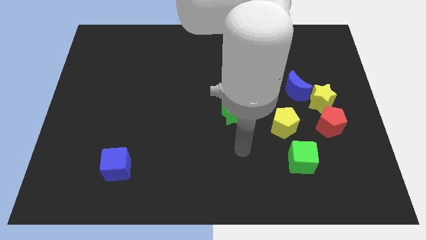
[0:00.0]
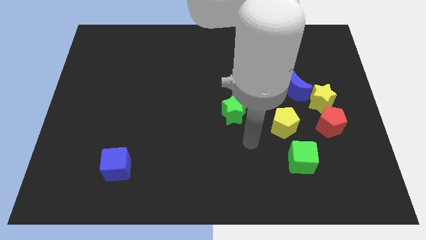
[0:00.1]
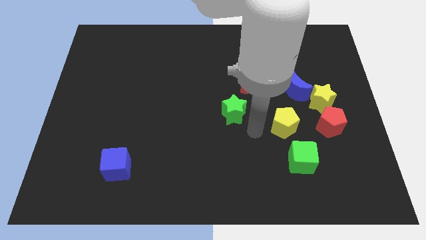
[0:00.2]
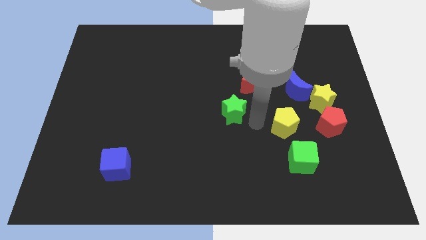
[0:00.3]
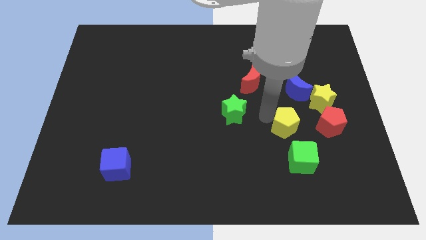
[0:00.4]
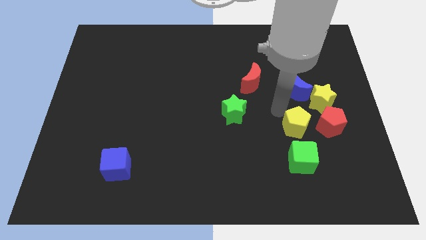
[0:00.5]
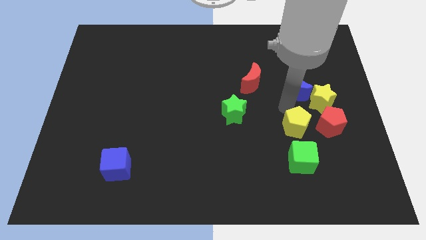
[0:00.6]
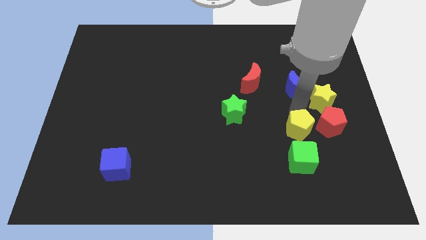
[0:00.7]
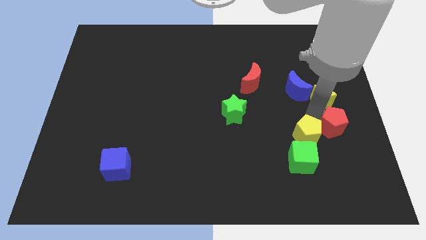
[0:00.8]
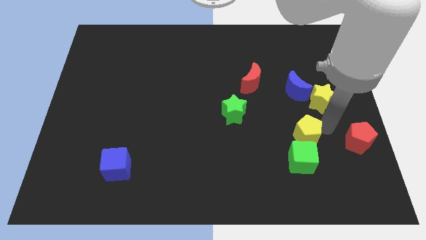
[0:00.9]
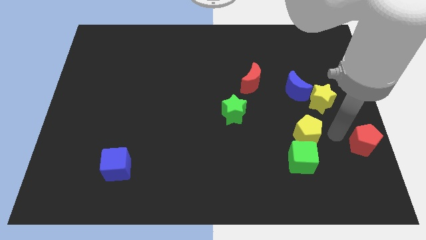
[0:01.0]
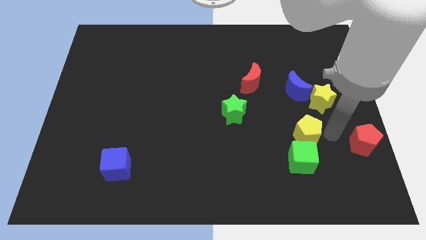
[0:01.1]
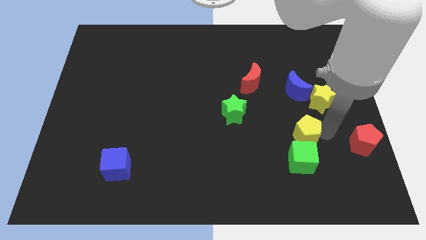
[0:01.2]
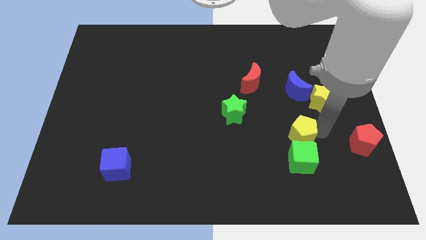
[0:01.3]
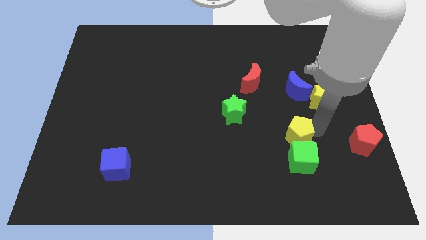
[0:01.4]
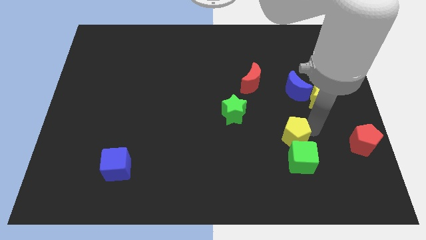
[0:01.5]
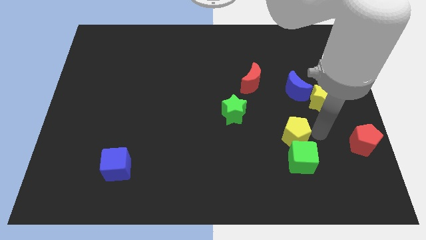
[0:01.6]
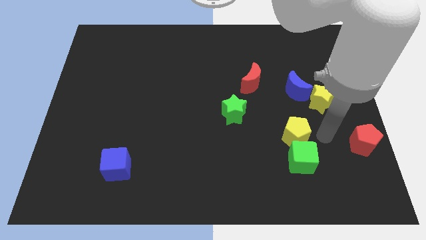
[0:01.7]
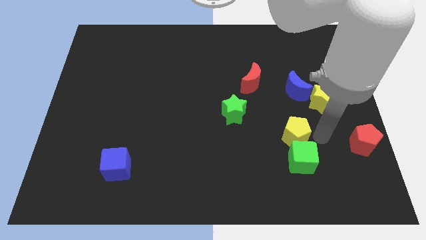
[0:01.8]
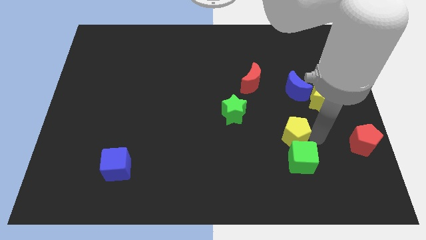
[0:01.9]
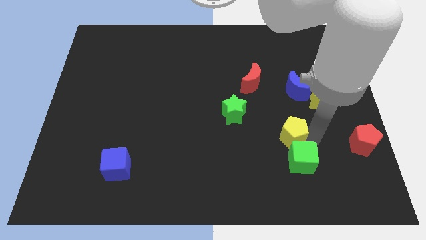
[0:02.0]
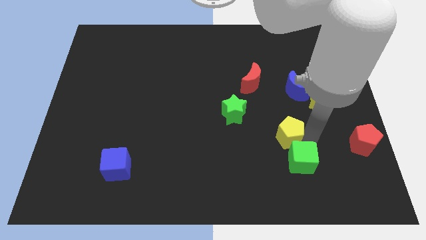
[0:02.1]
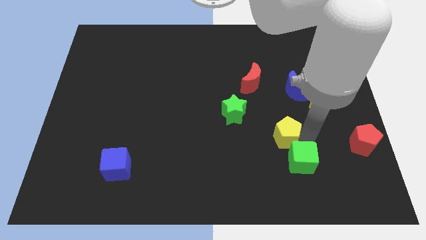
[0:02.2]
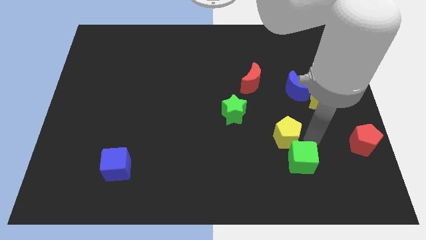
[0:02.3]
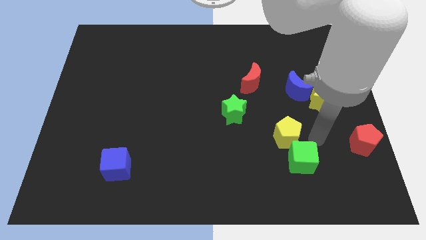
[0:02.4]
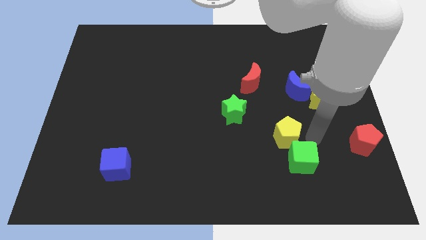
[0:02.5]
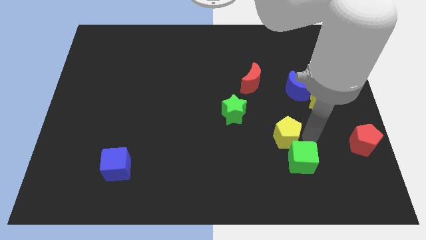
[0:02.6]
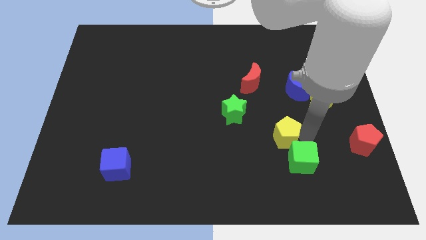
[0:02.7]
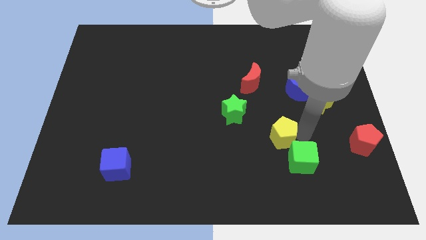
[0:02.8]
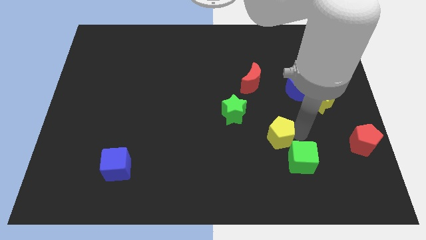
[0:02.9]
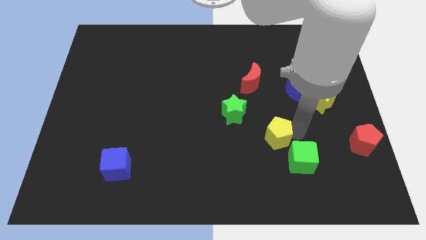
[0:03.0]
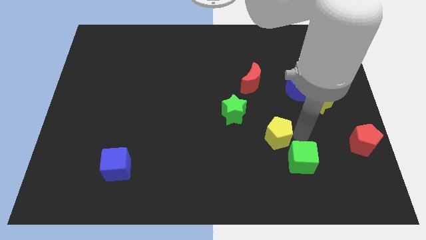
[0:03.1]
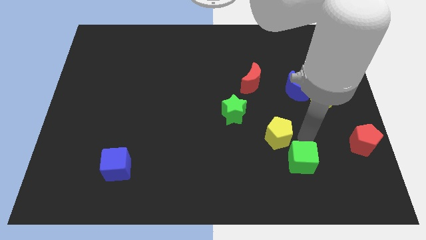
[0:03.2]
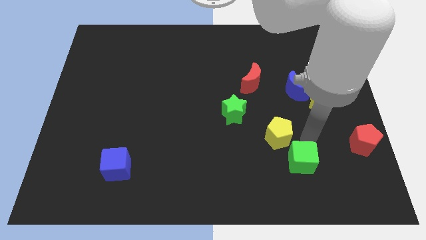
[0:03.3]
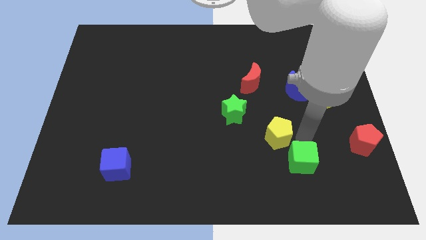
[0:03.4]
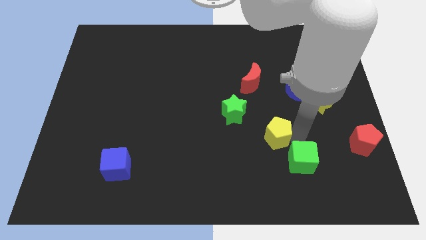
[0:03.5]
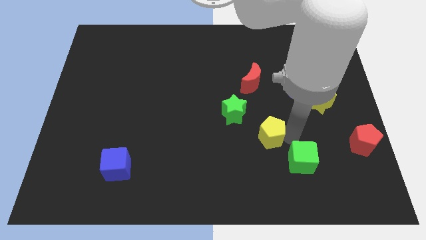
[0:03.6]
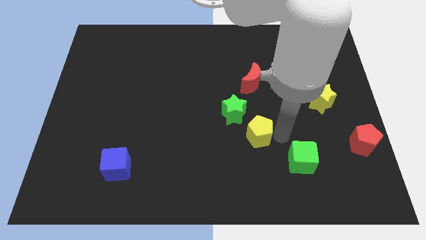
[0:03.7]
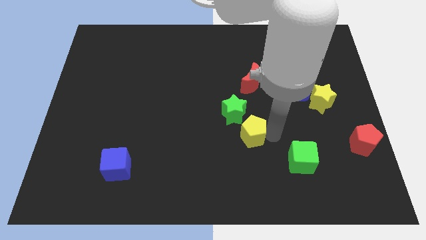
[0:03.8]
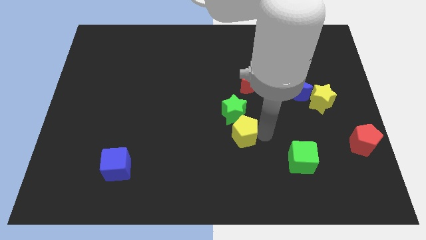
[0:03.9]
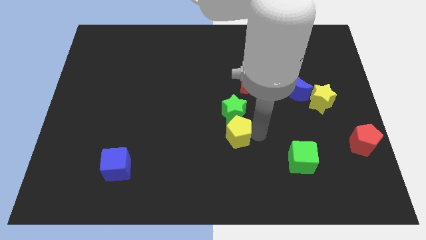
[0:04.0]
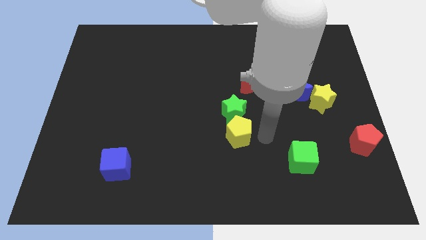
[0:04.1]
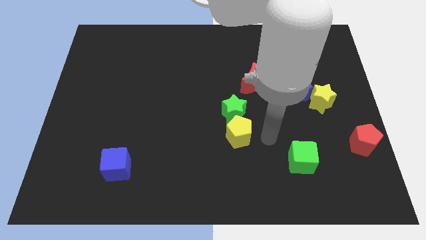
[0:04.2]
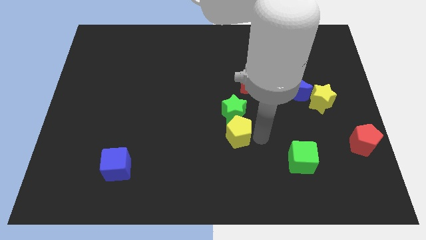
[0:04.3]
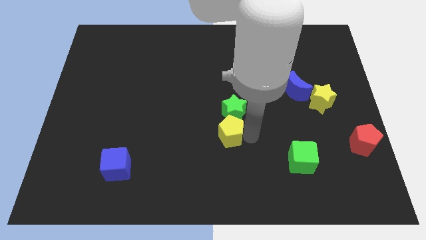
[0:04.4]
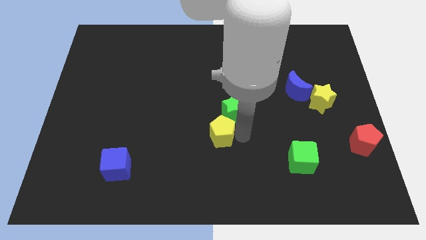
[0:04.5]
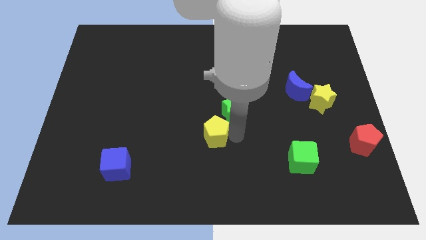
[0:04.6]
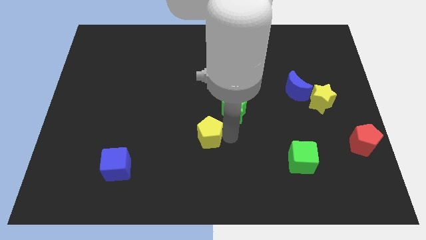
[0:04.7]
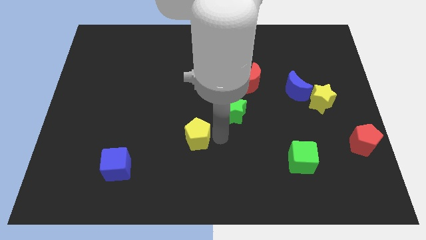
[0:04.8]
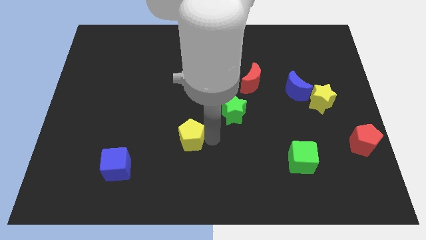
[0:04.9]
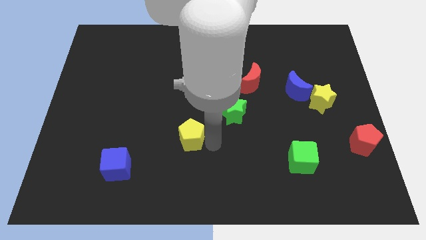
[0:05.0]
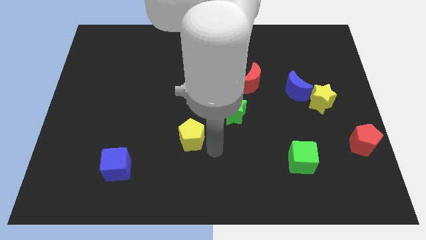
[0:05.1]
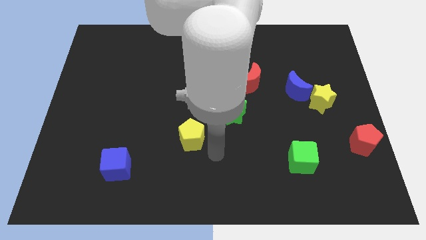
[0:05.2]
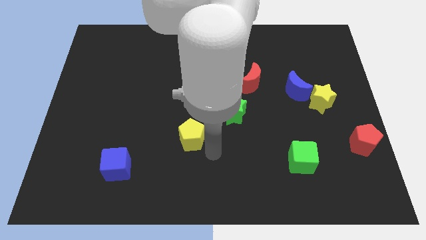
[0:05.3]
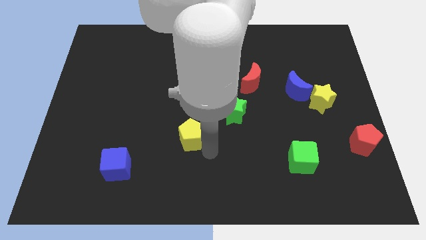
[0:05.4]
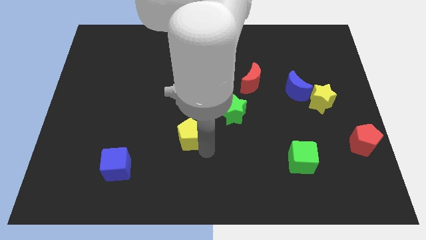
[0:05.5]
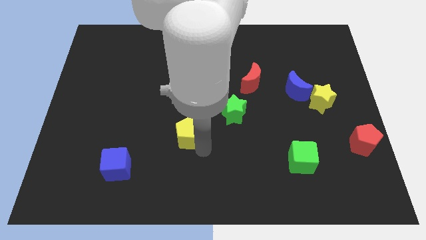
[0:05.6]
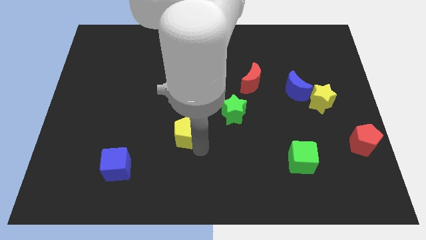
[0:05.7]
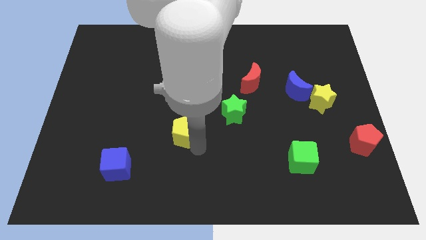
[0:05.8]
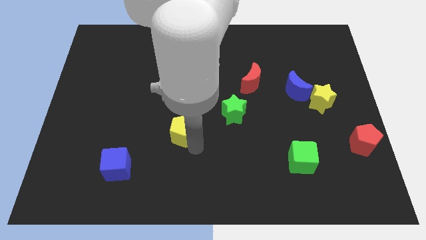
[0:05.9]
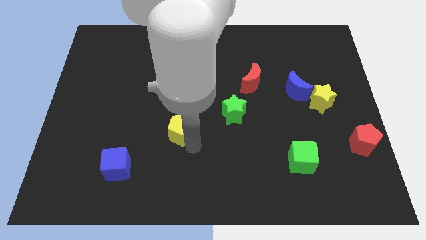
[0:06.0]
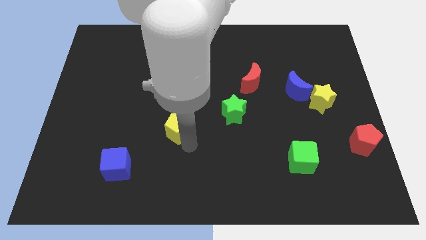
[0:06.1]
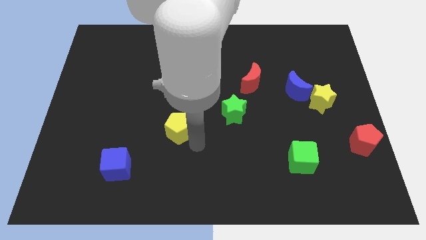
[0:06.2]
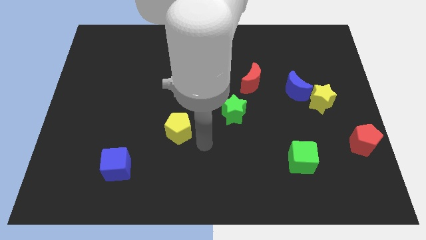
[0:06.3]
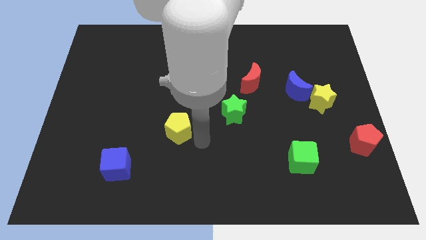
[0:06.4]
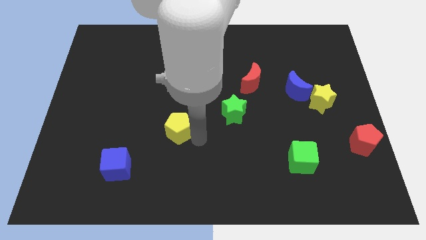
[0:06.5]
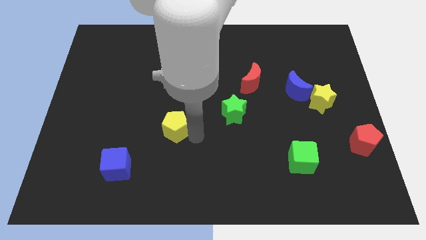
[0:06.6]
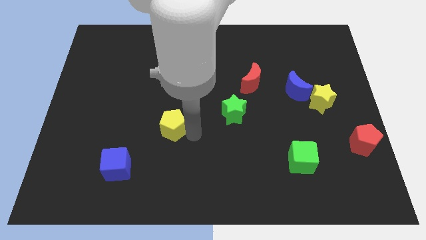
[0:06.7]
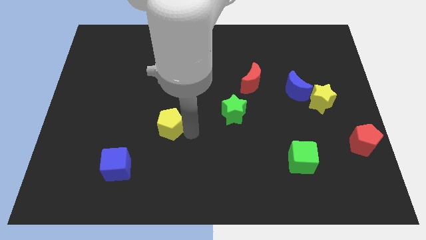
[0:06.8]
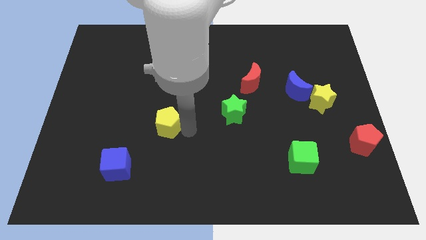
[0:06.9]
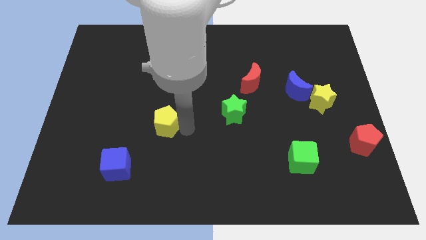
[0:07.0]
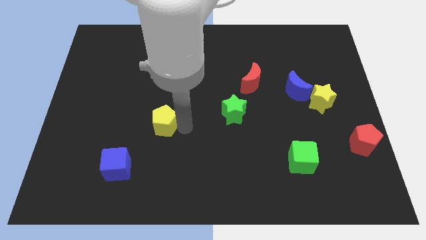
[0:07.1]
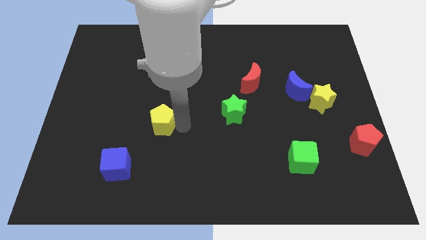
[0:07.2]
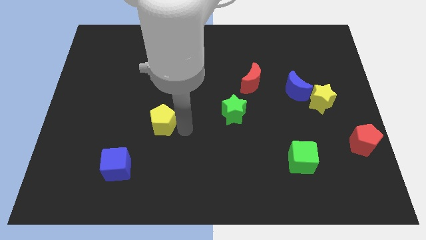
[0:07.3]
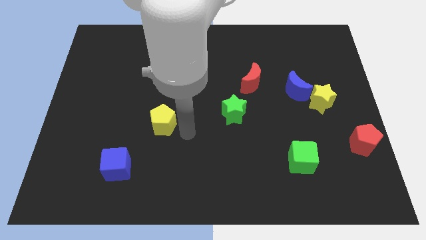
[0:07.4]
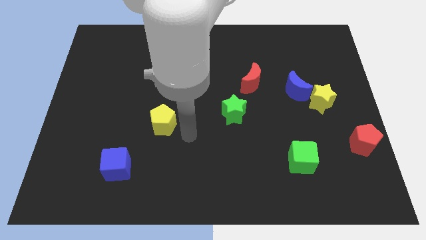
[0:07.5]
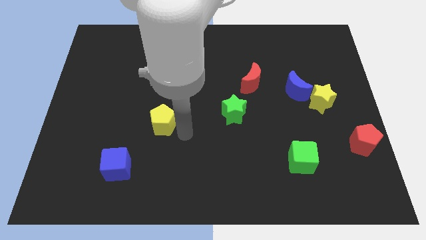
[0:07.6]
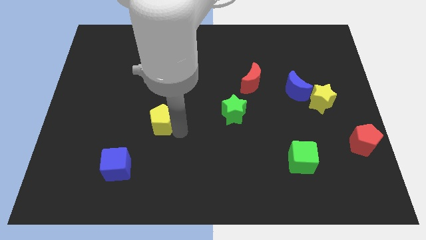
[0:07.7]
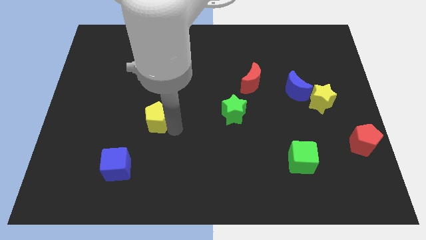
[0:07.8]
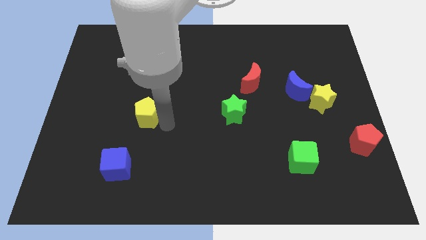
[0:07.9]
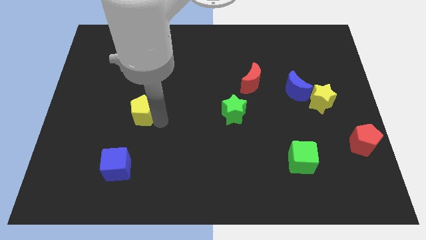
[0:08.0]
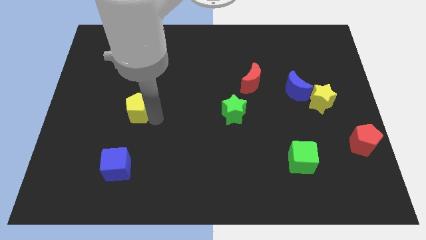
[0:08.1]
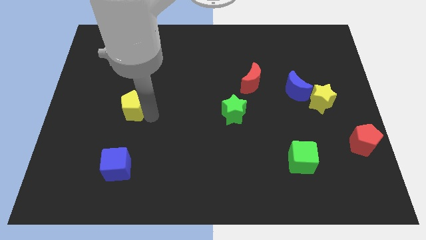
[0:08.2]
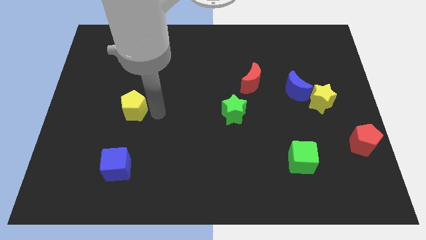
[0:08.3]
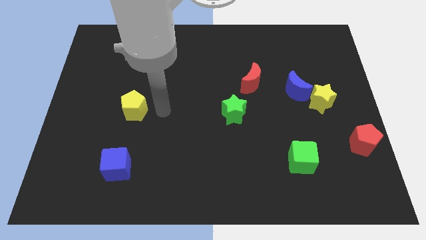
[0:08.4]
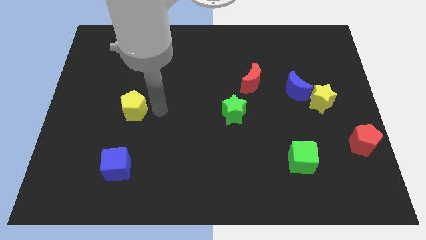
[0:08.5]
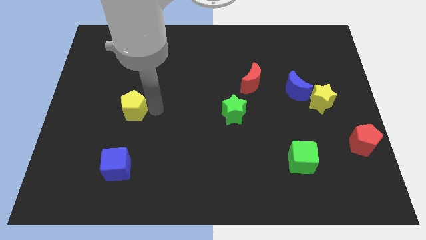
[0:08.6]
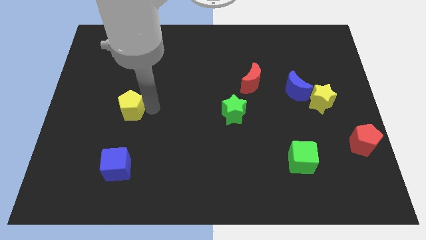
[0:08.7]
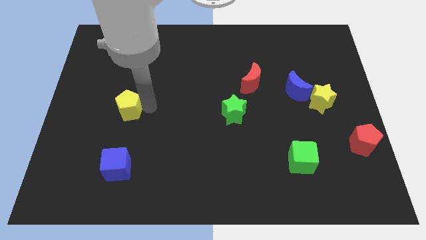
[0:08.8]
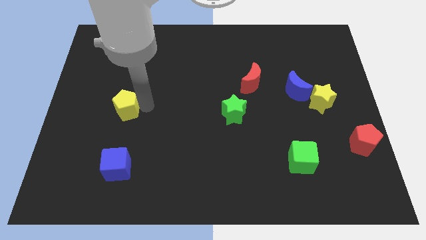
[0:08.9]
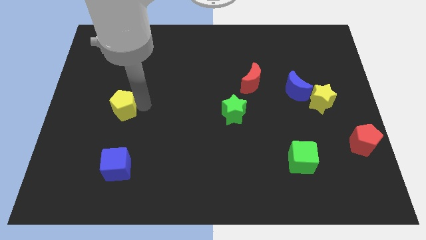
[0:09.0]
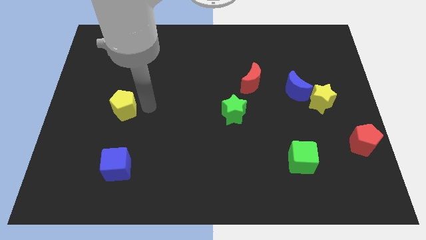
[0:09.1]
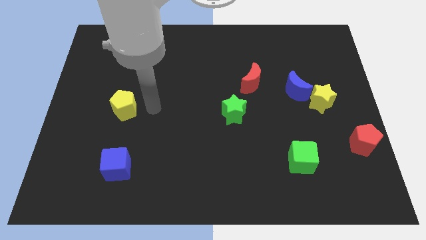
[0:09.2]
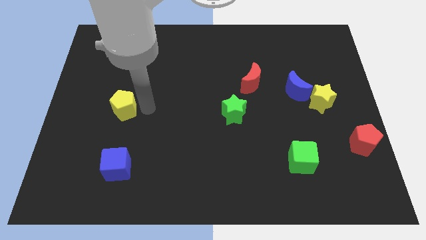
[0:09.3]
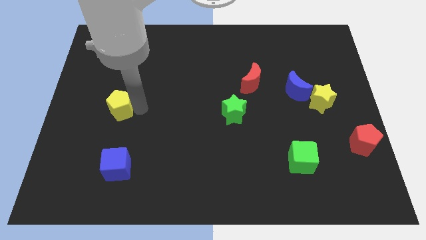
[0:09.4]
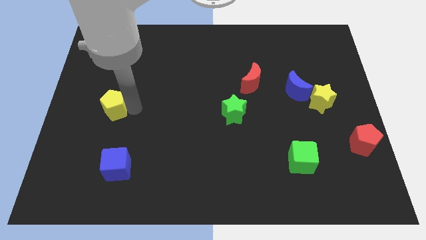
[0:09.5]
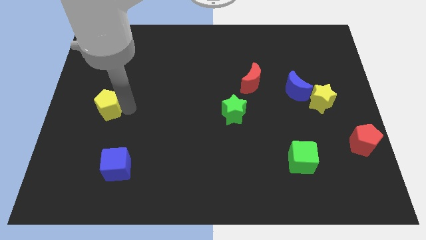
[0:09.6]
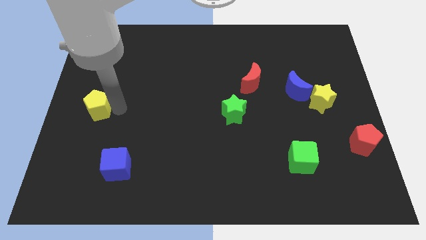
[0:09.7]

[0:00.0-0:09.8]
move the yellow pentagon to the center left
